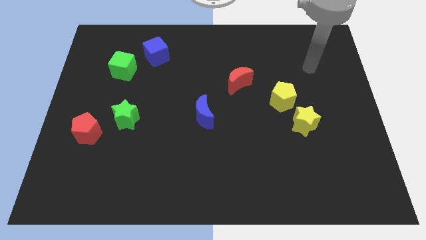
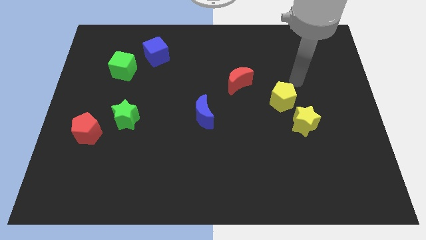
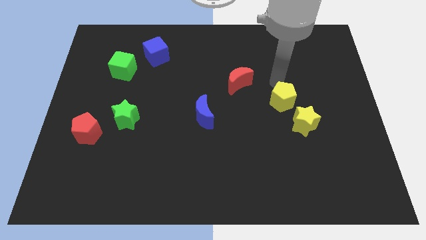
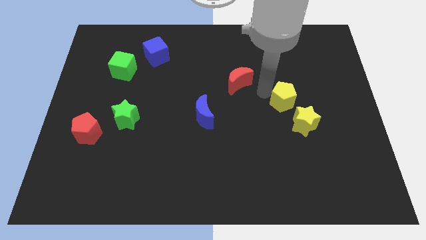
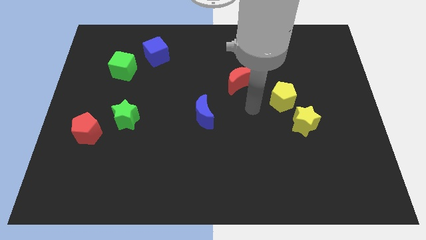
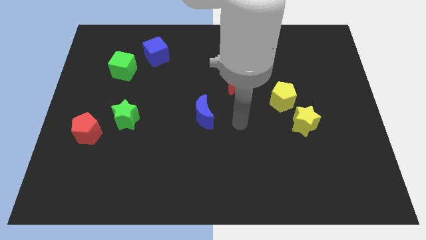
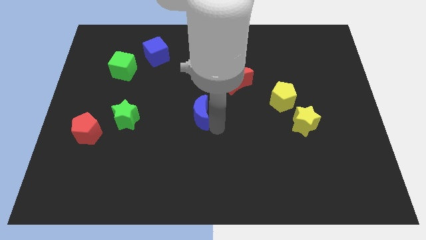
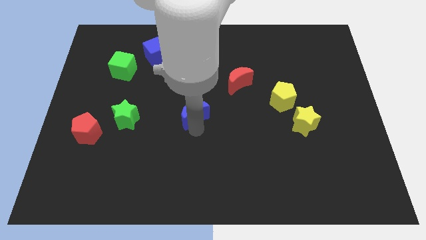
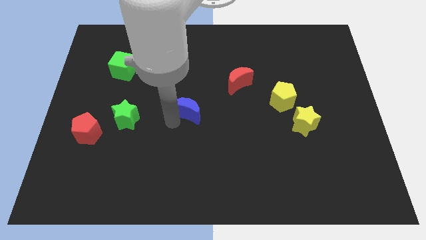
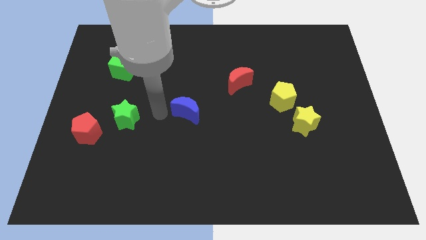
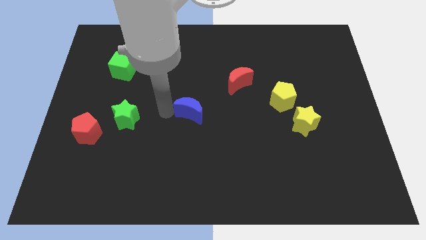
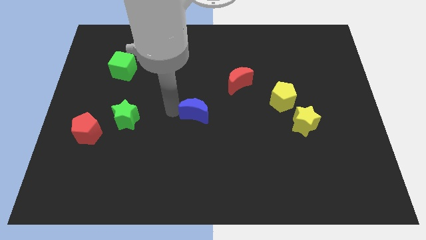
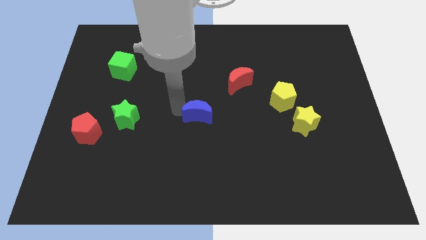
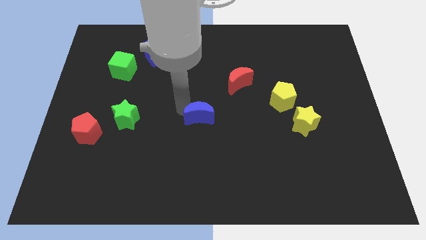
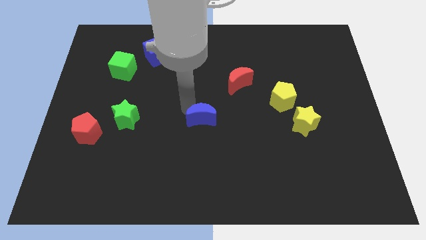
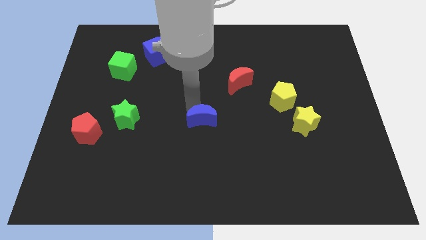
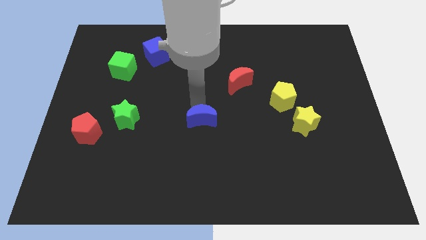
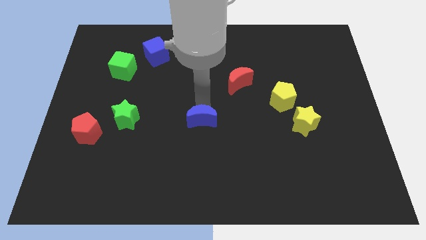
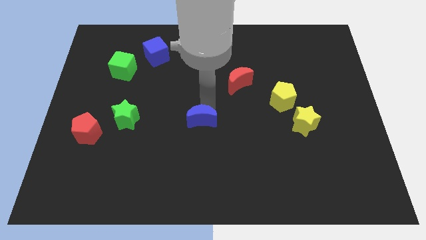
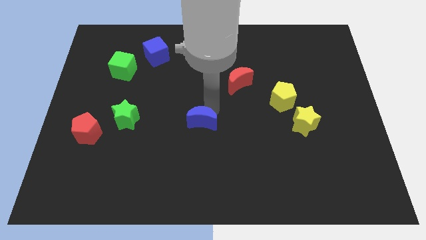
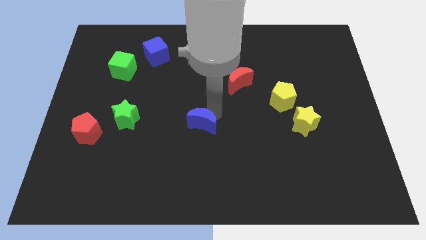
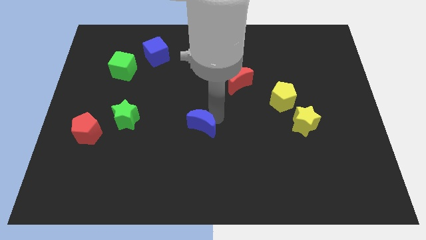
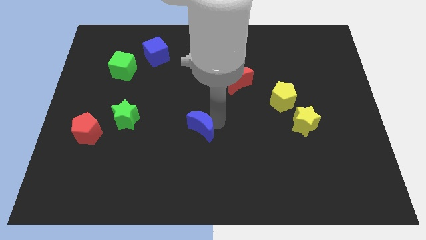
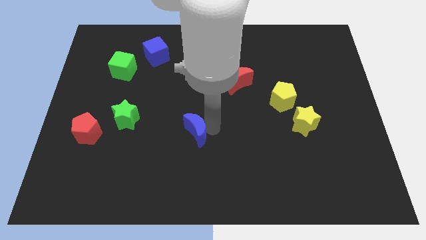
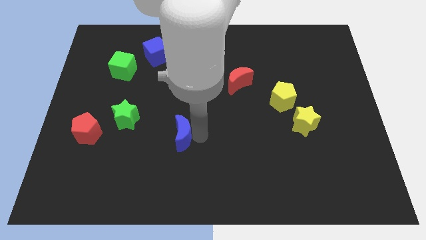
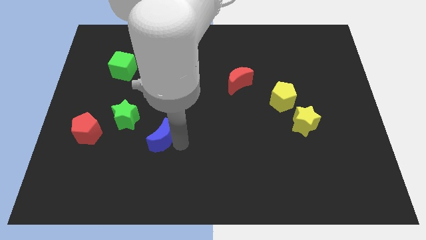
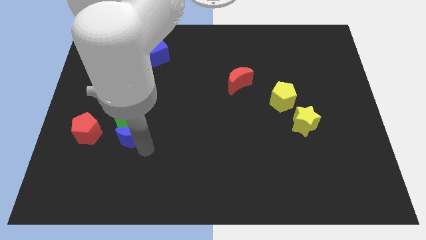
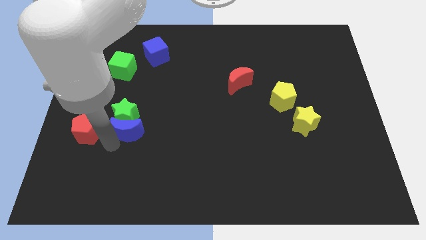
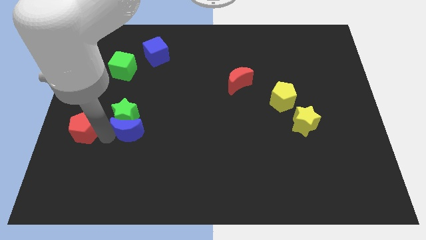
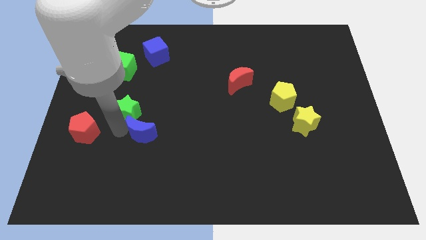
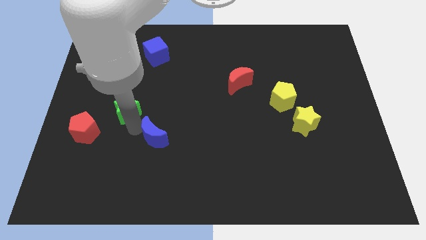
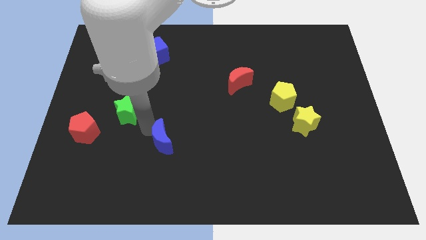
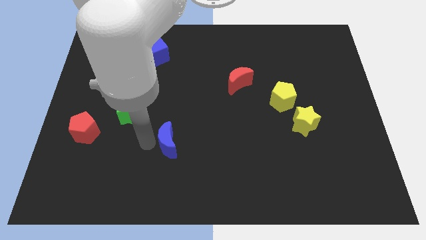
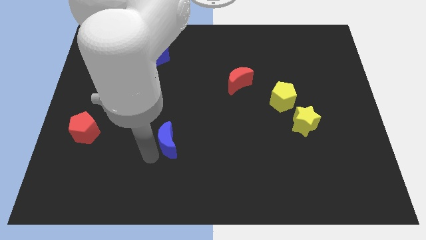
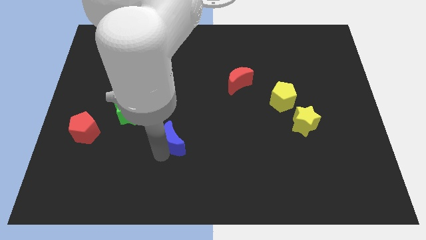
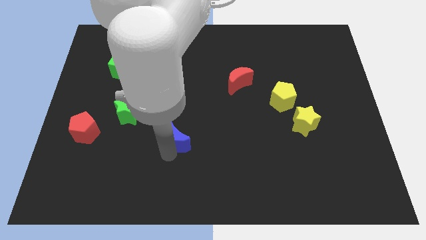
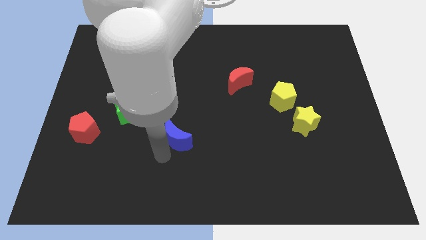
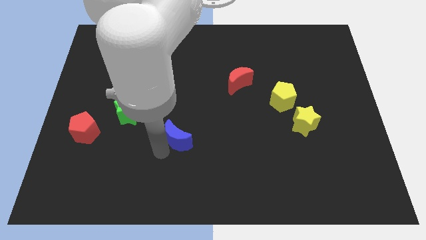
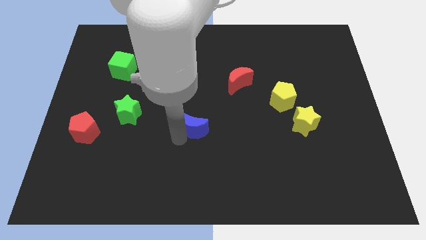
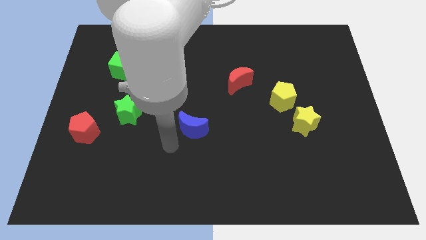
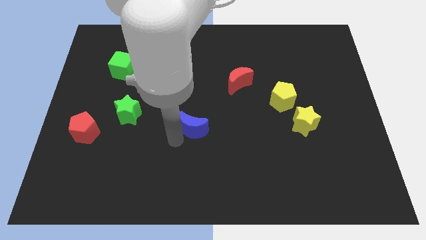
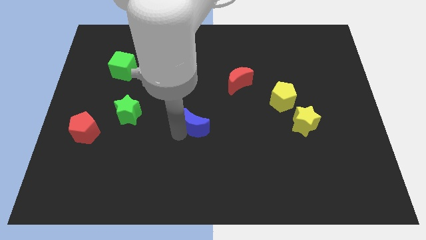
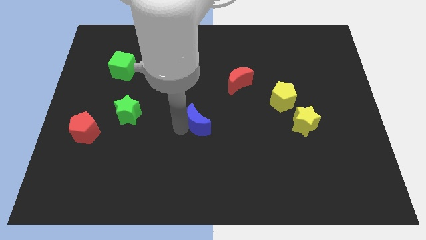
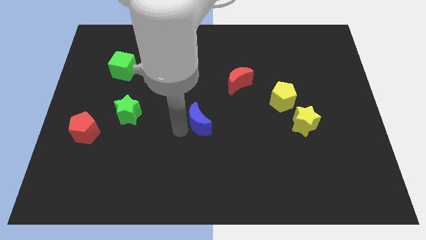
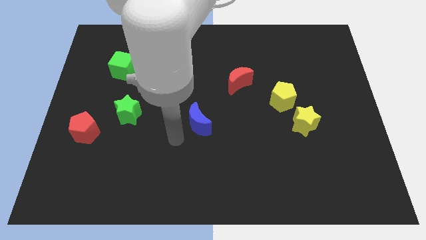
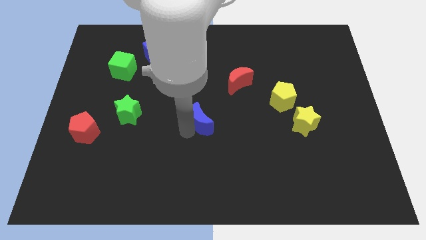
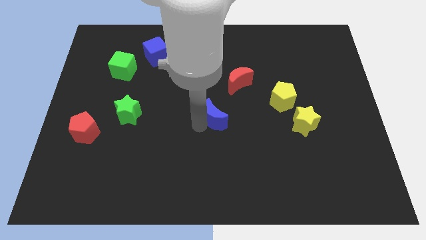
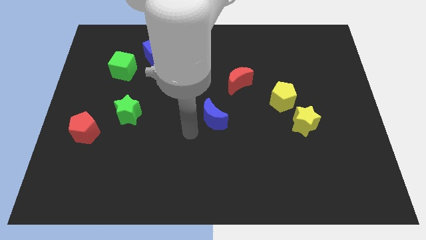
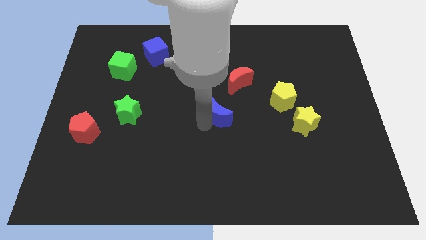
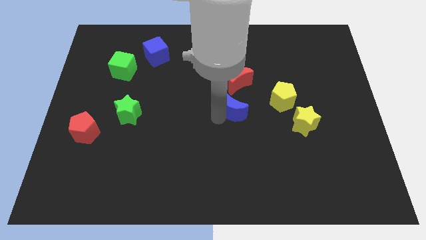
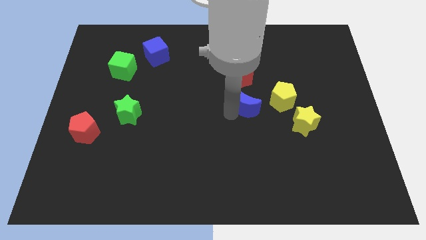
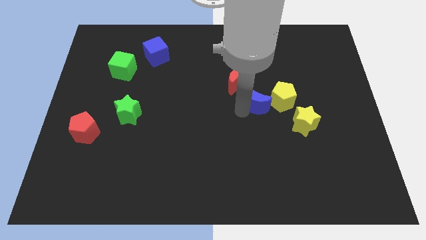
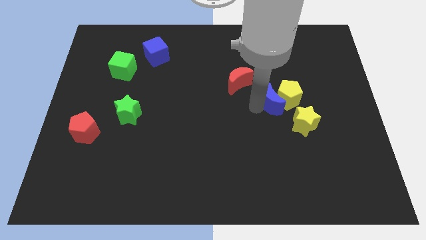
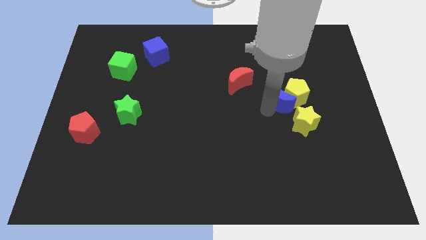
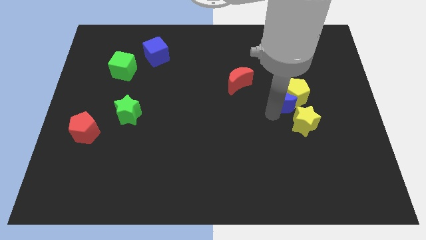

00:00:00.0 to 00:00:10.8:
put the blue moon to the top of the yellow star

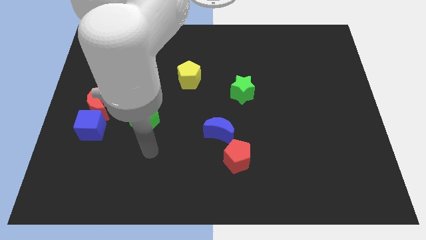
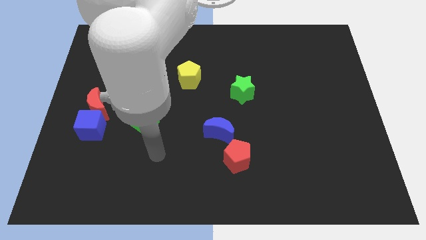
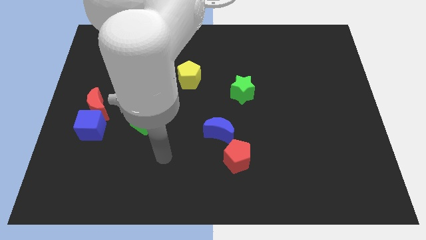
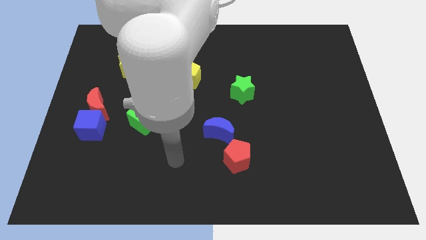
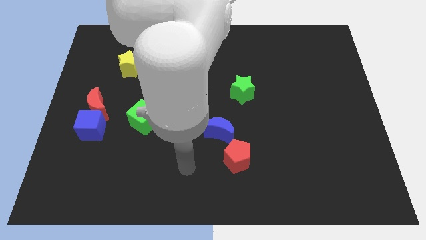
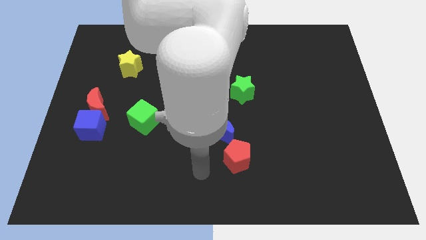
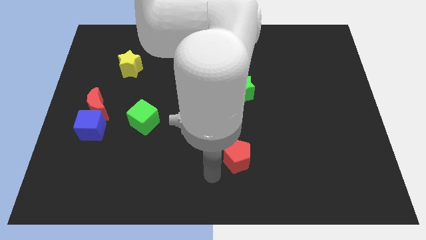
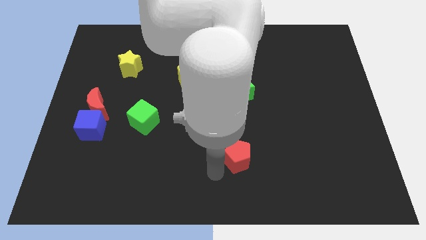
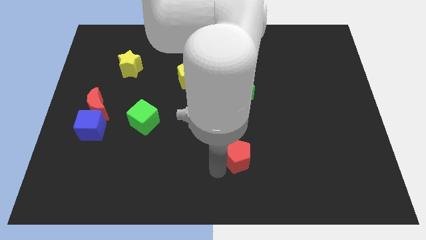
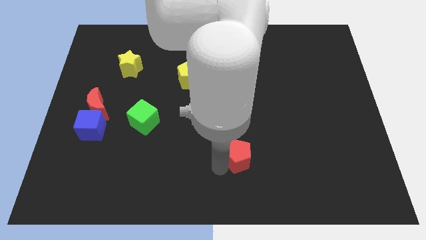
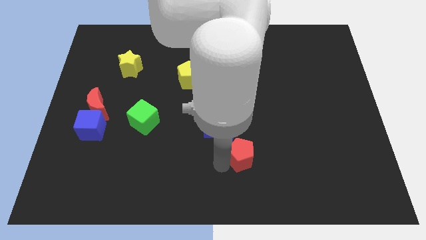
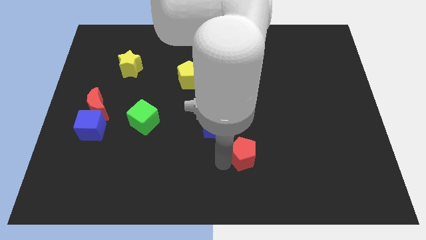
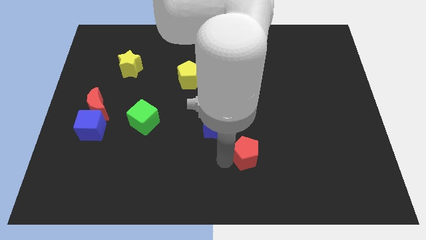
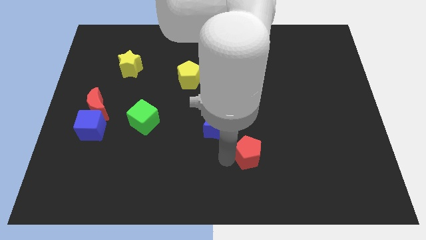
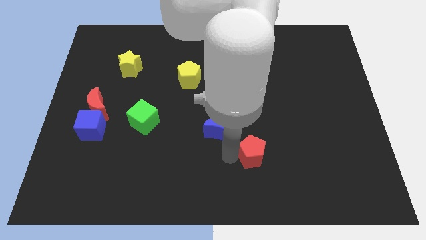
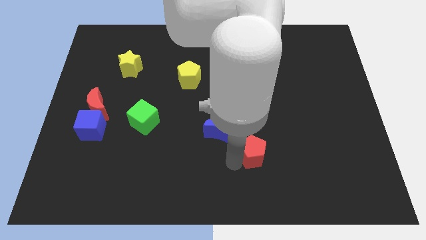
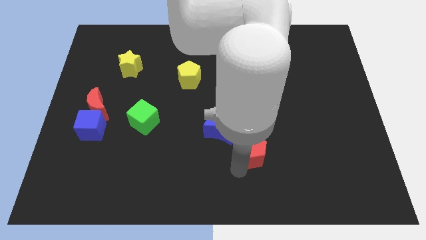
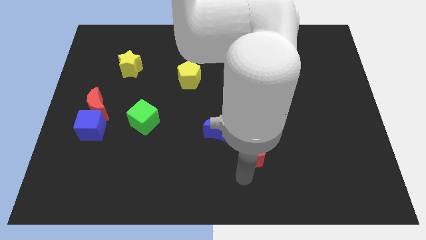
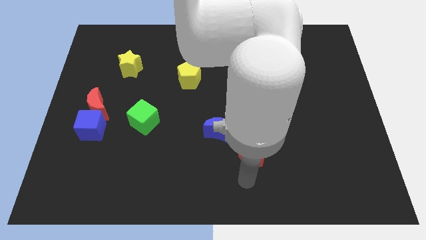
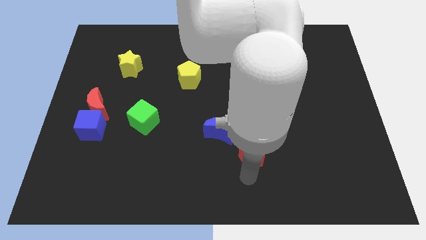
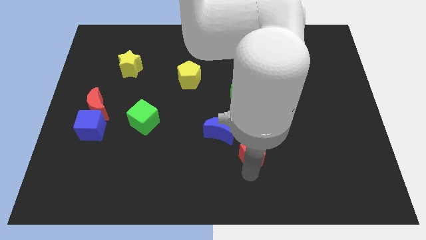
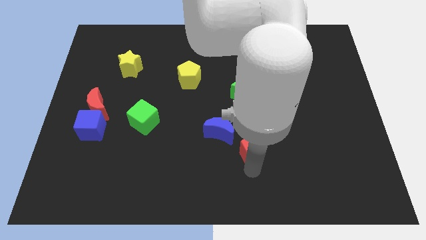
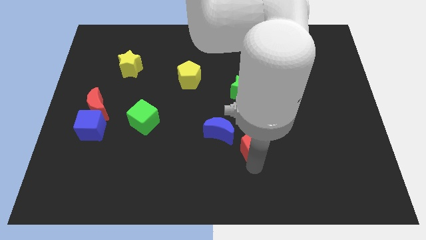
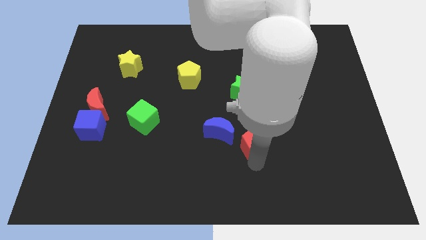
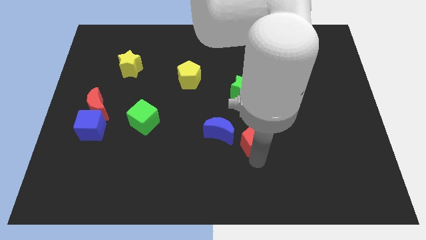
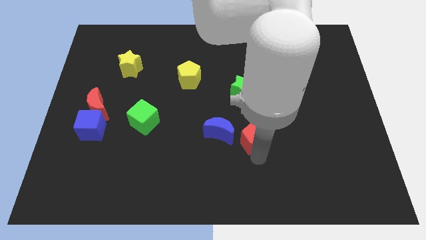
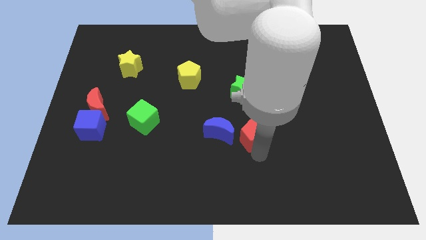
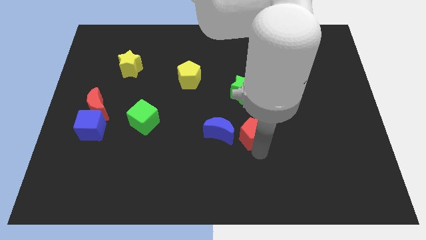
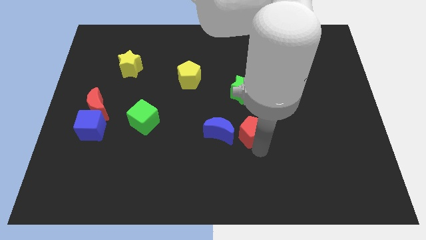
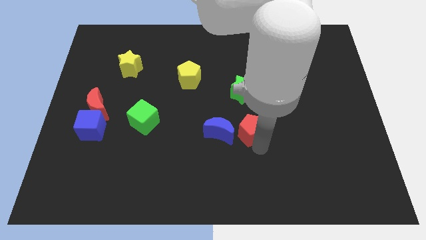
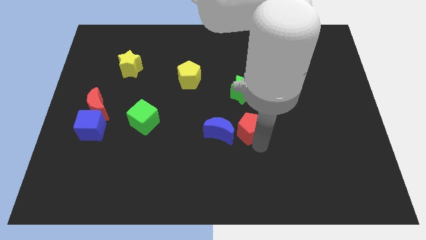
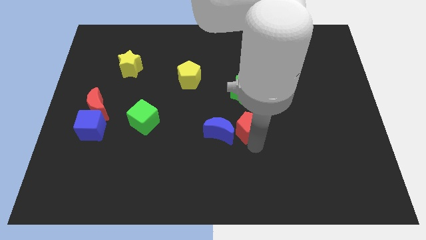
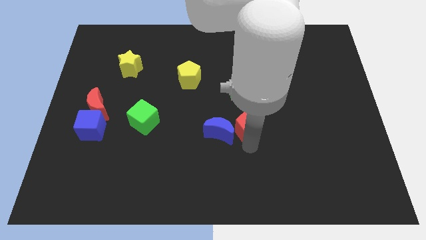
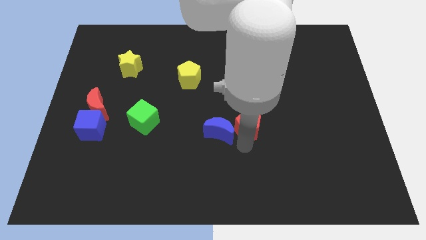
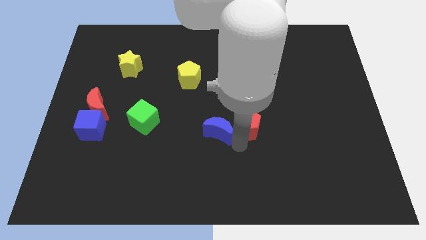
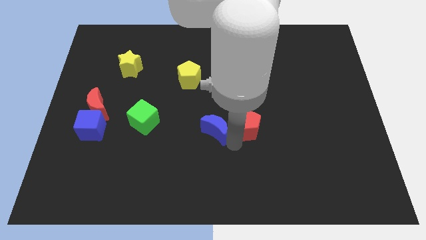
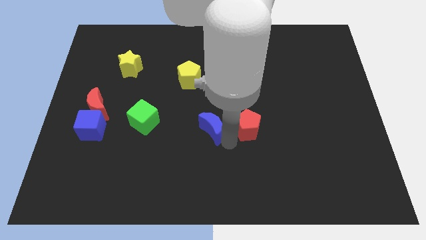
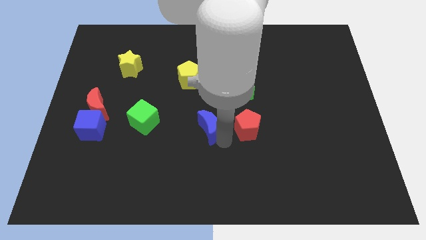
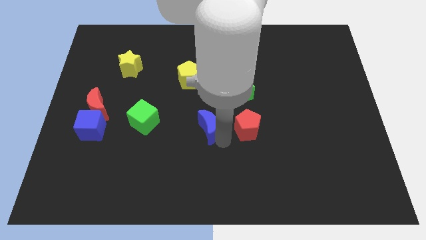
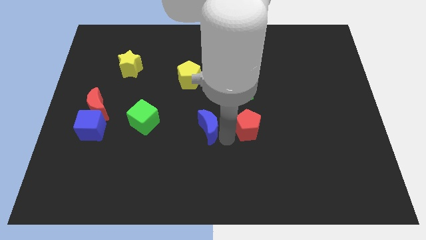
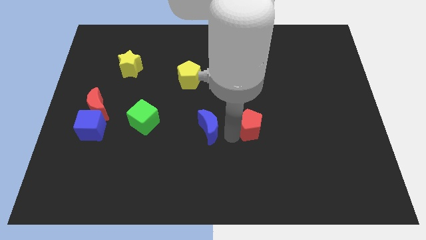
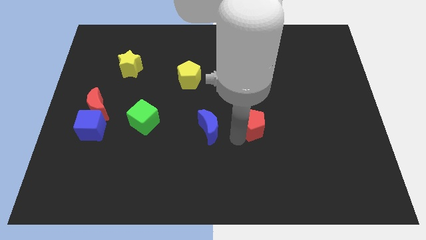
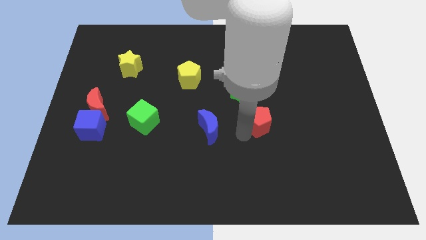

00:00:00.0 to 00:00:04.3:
slide the red pentagon to the bottom right of the green star
